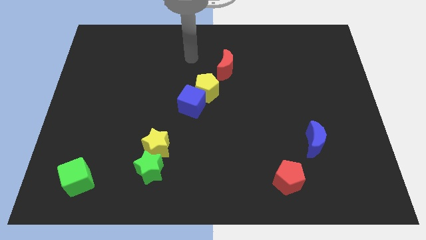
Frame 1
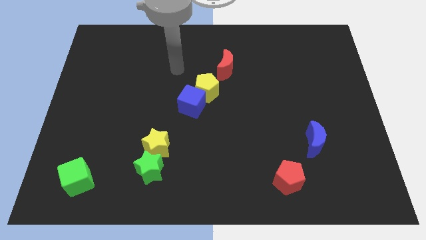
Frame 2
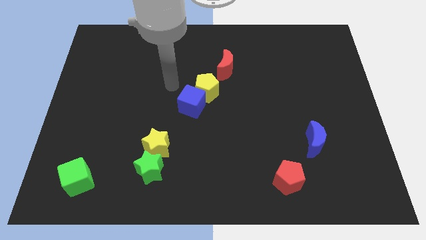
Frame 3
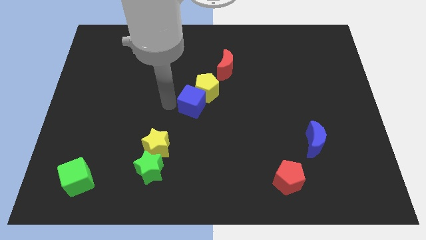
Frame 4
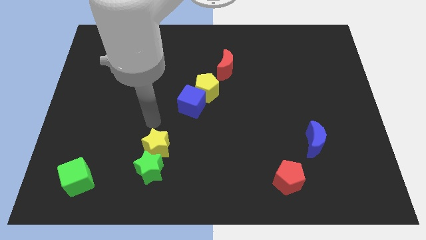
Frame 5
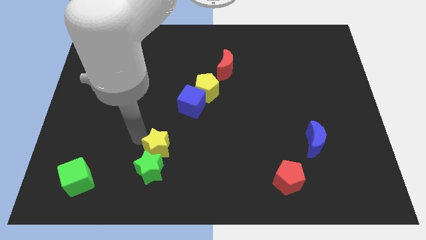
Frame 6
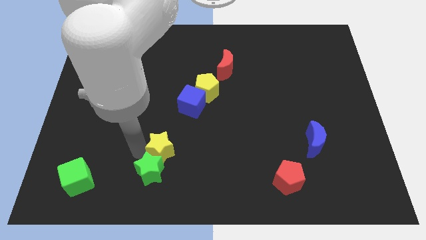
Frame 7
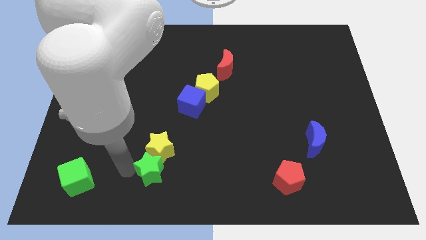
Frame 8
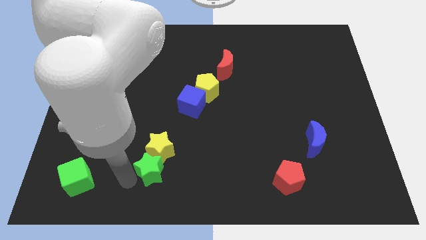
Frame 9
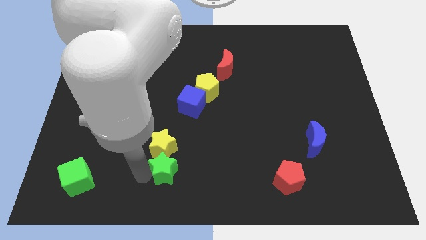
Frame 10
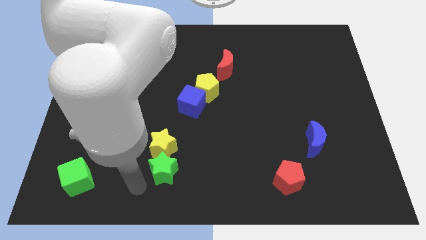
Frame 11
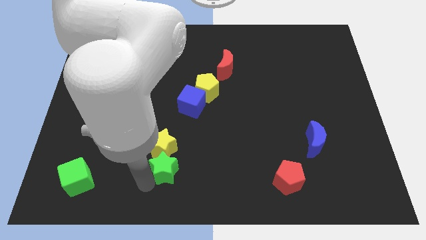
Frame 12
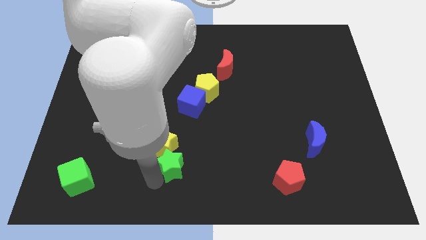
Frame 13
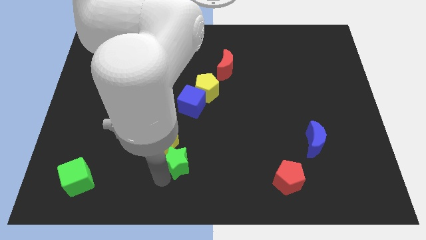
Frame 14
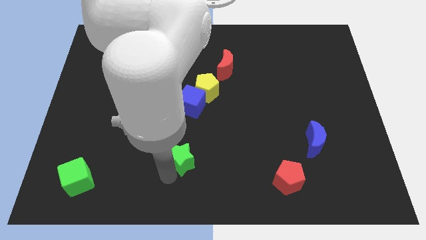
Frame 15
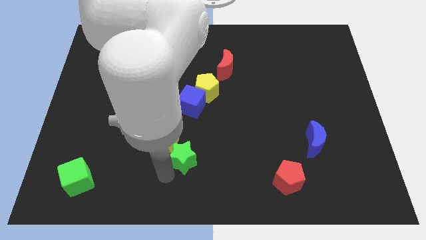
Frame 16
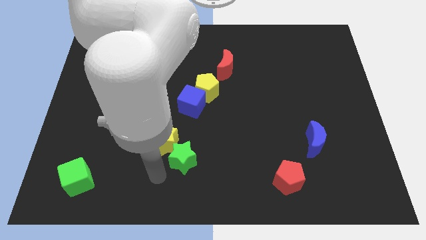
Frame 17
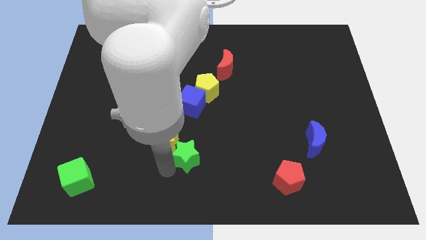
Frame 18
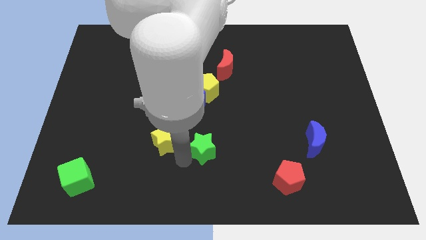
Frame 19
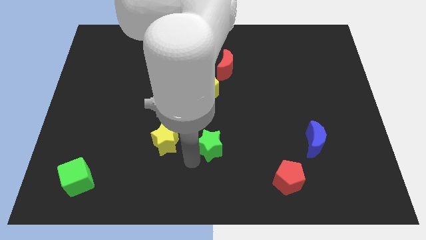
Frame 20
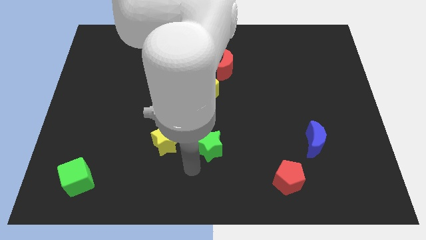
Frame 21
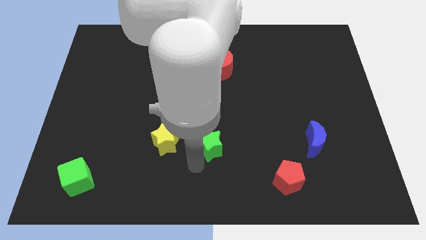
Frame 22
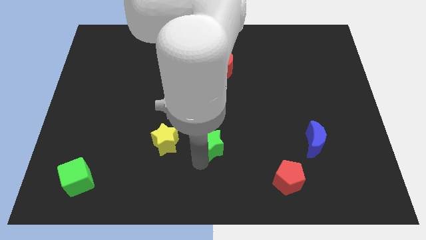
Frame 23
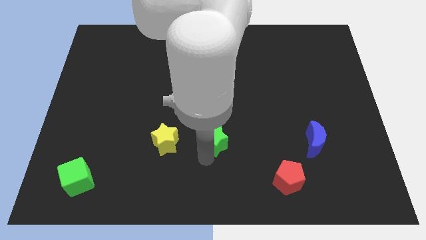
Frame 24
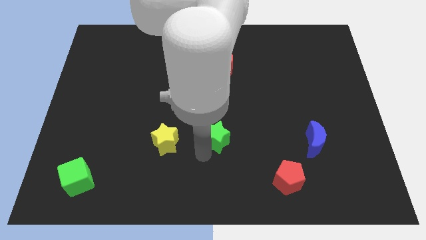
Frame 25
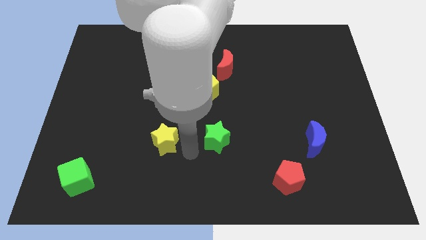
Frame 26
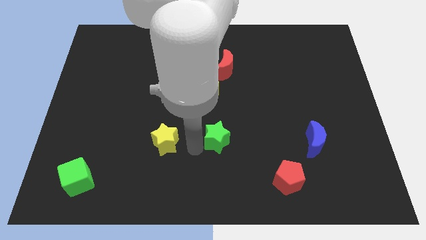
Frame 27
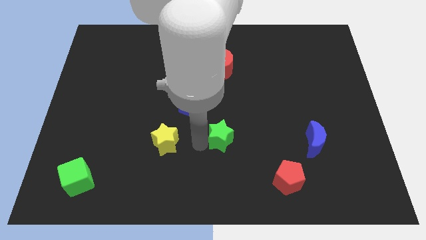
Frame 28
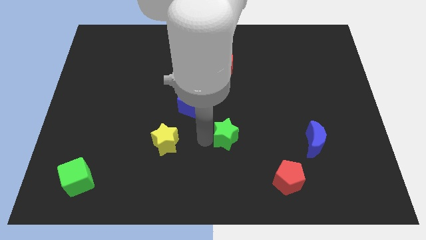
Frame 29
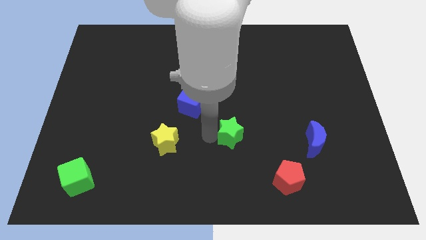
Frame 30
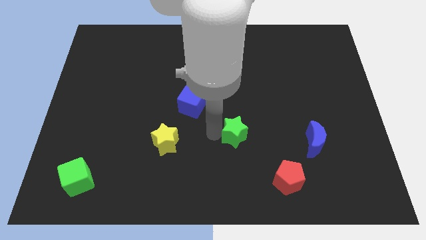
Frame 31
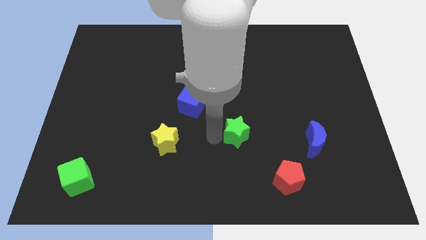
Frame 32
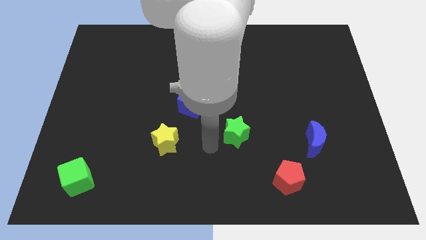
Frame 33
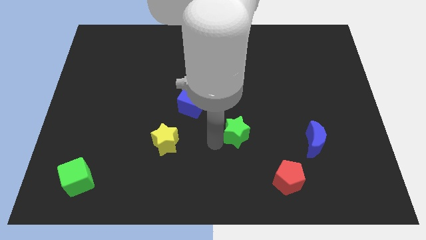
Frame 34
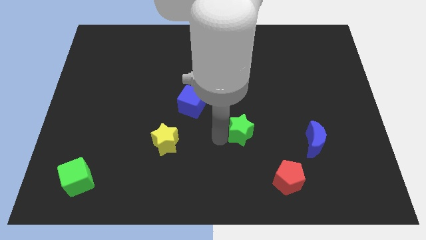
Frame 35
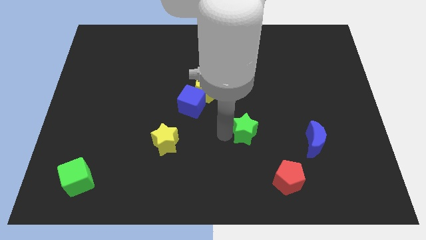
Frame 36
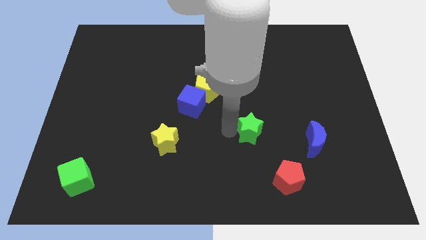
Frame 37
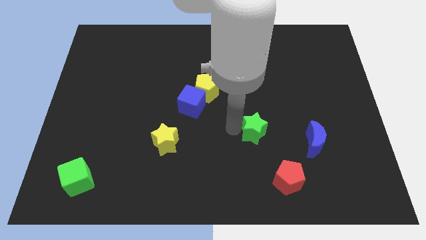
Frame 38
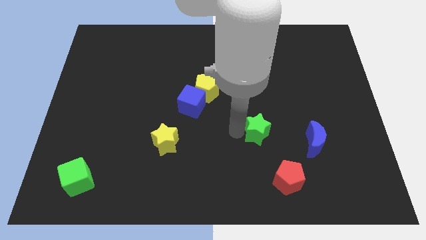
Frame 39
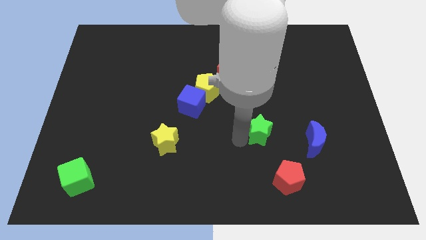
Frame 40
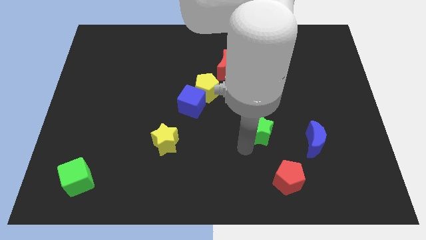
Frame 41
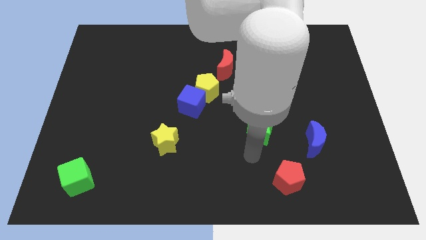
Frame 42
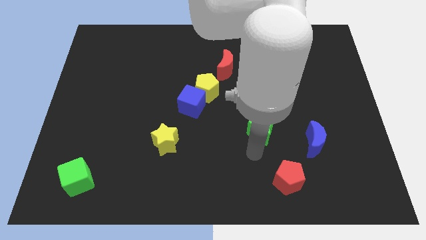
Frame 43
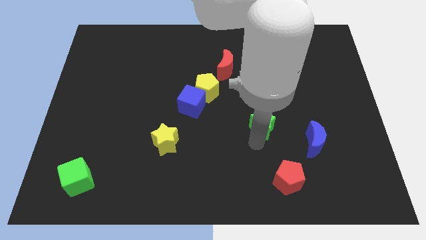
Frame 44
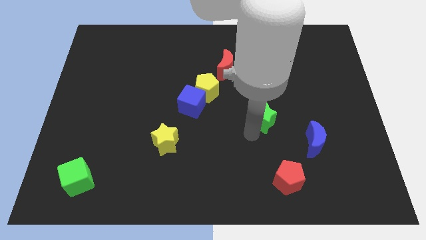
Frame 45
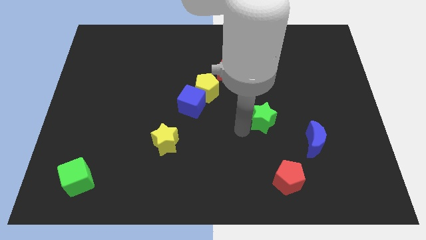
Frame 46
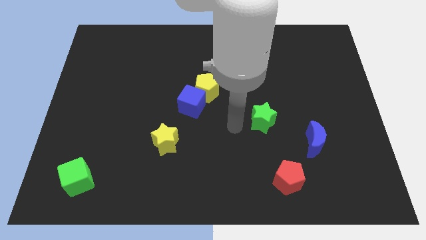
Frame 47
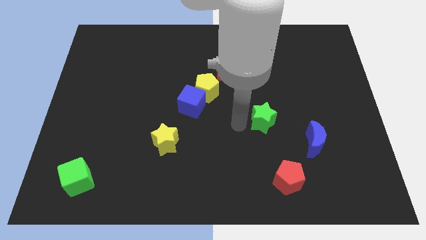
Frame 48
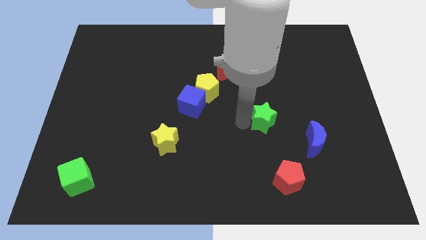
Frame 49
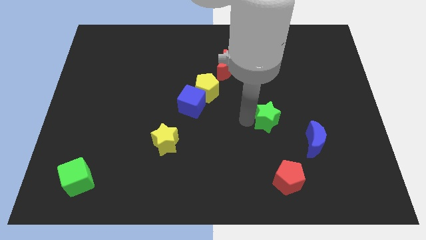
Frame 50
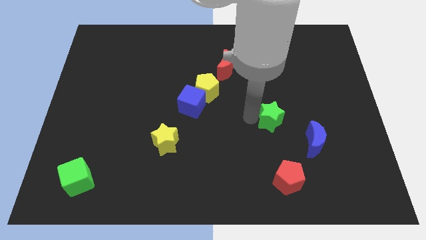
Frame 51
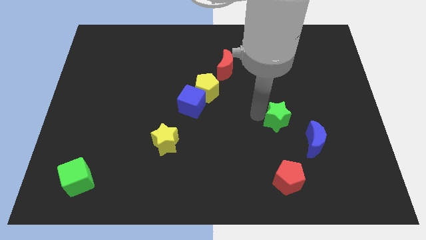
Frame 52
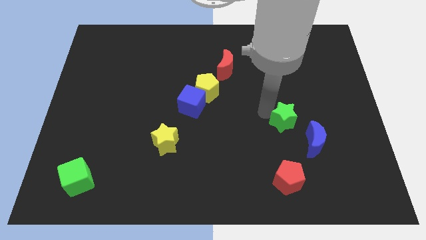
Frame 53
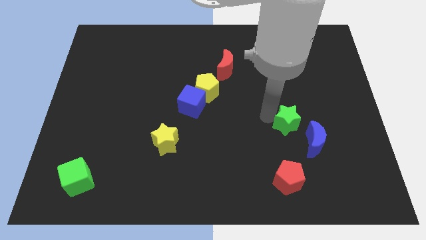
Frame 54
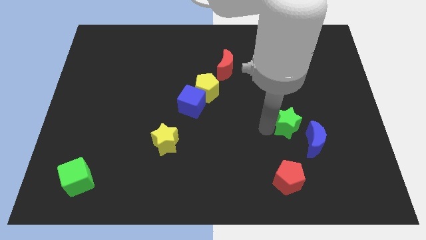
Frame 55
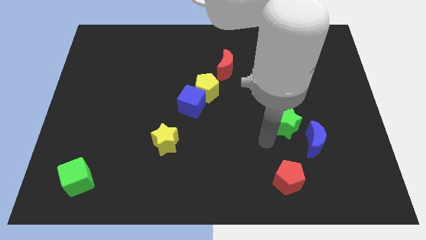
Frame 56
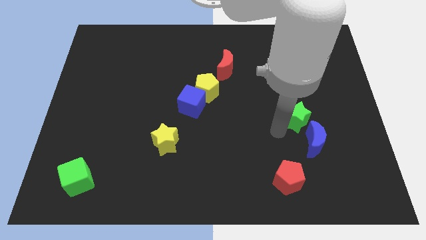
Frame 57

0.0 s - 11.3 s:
push the green star to the top side of the blue moon

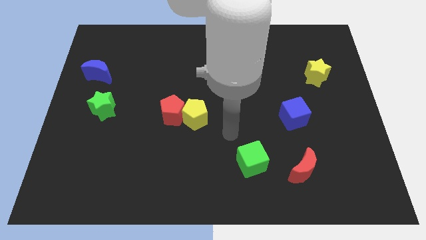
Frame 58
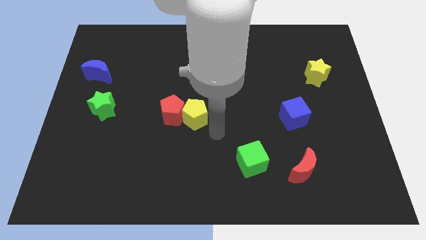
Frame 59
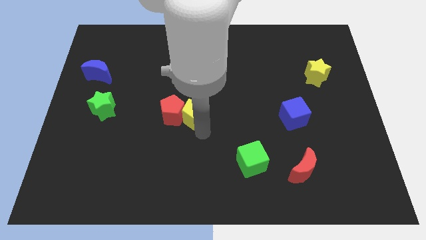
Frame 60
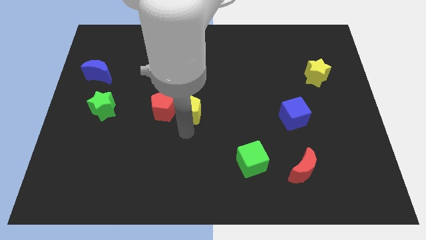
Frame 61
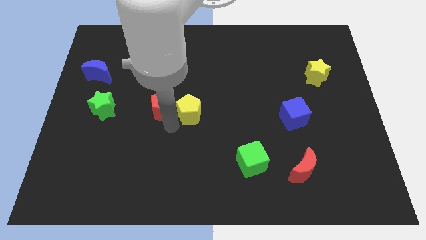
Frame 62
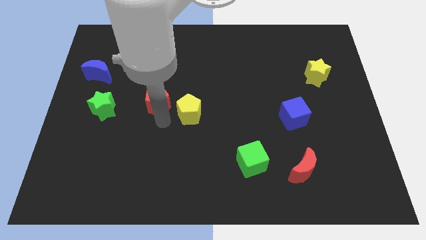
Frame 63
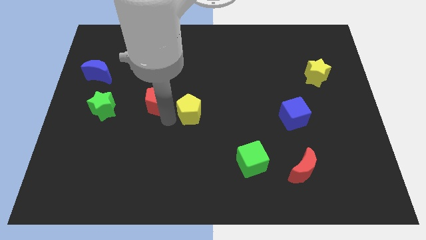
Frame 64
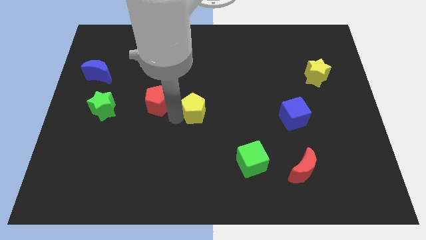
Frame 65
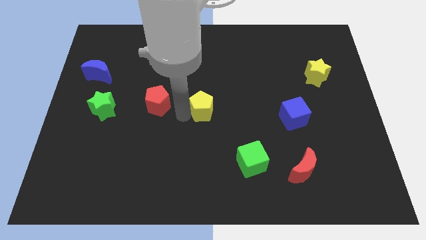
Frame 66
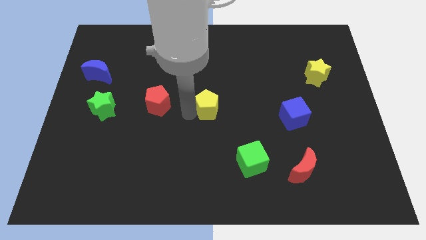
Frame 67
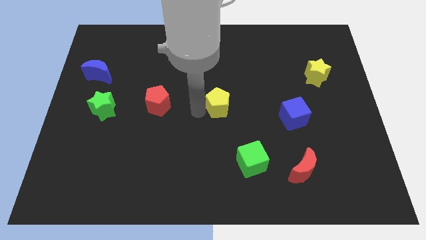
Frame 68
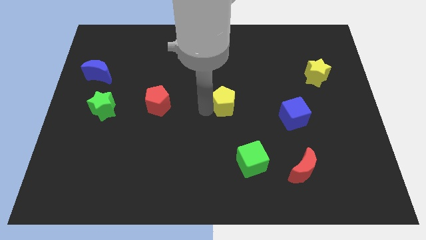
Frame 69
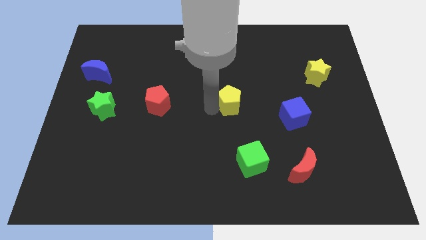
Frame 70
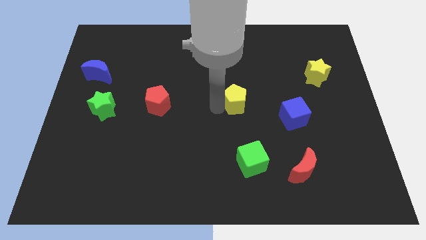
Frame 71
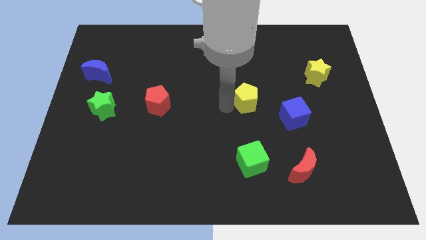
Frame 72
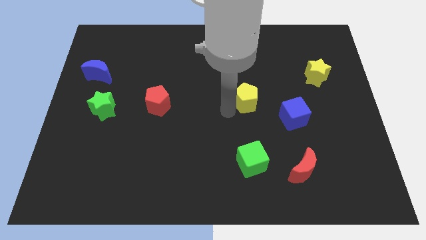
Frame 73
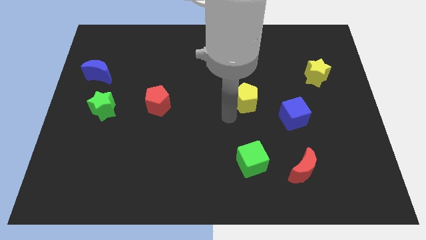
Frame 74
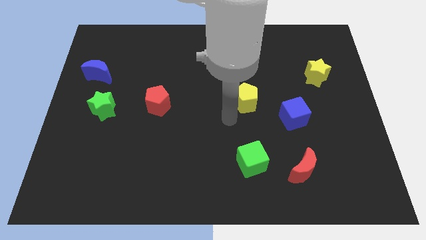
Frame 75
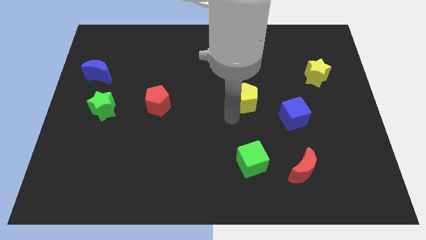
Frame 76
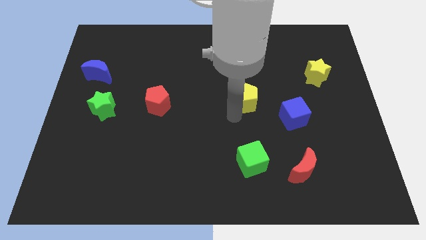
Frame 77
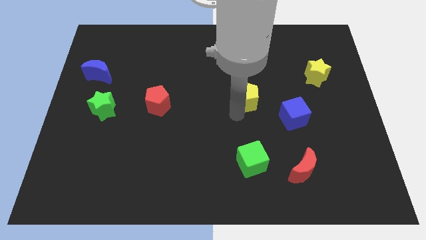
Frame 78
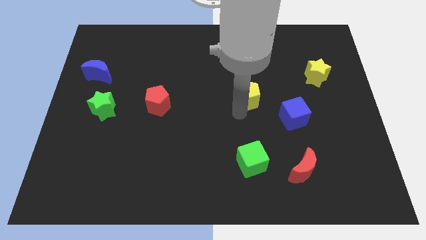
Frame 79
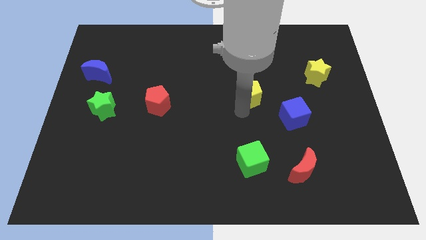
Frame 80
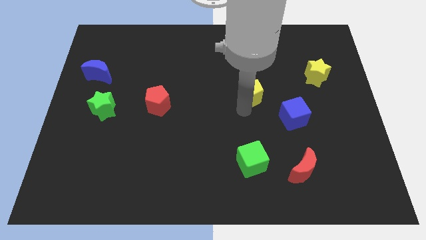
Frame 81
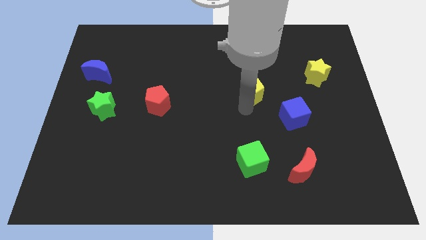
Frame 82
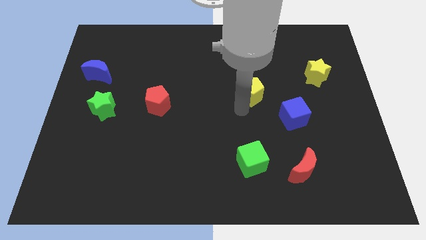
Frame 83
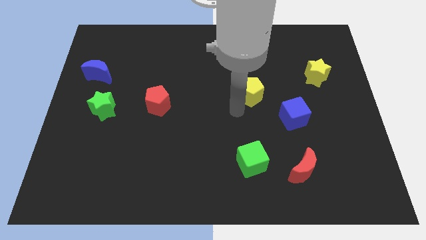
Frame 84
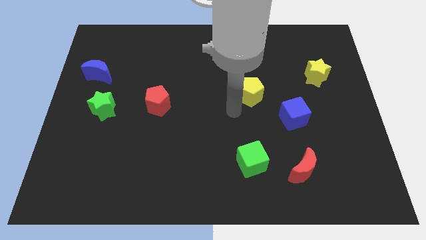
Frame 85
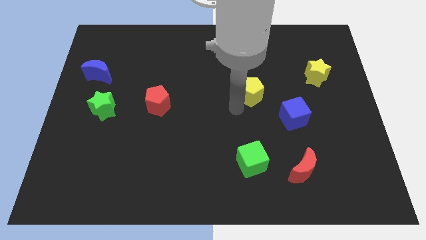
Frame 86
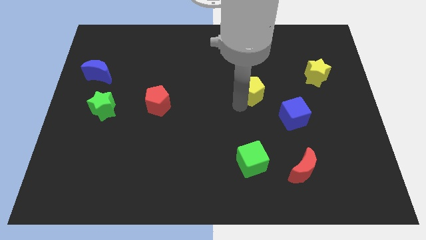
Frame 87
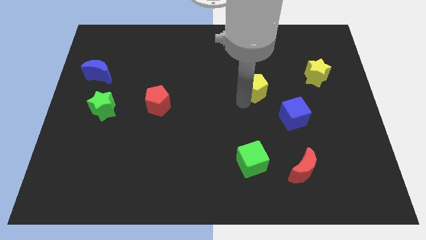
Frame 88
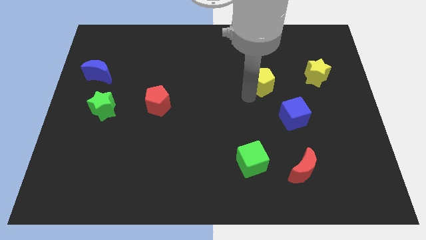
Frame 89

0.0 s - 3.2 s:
put the yellow pentagon left of the yellow star
